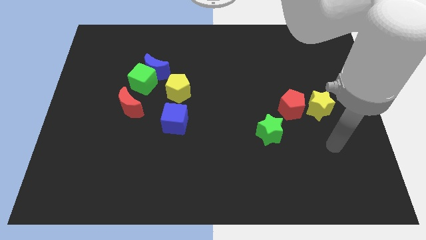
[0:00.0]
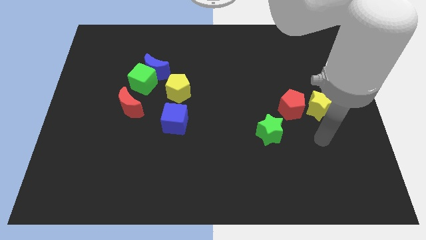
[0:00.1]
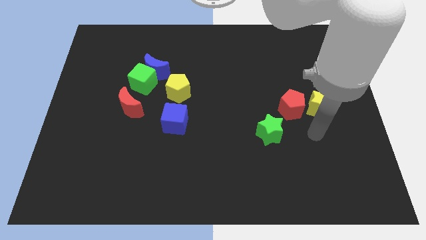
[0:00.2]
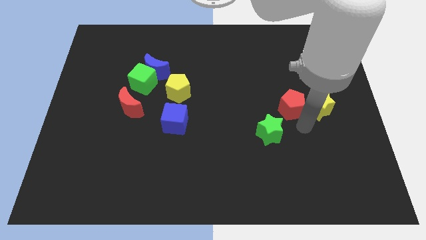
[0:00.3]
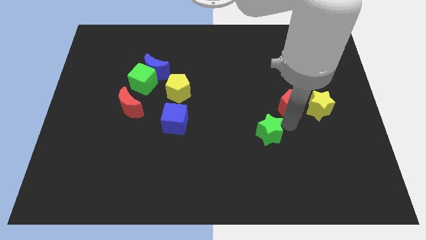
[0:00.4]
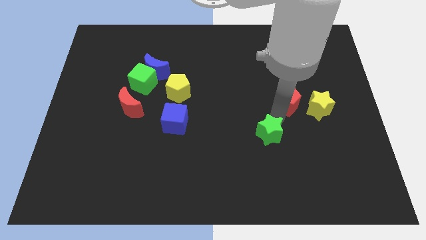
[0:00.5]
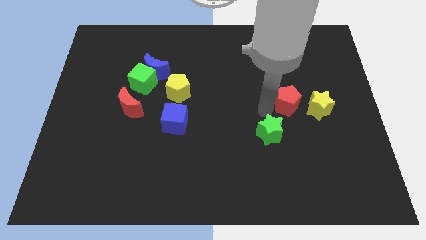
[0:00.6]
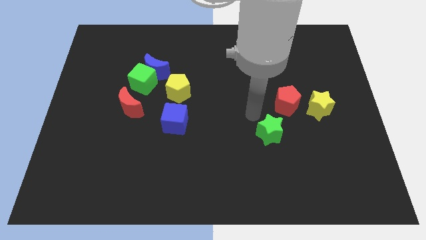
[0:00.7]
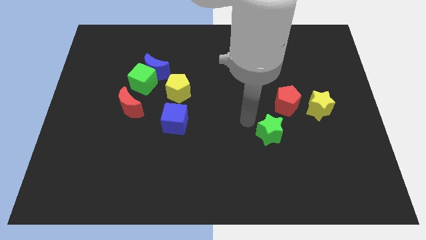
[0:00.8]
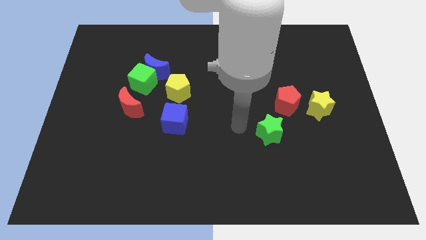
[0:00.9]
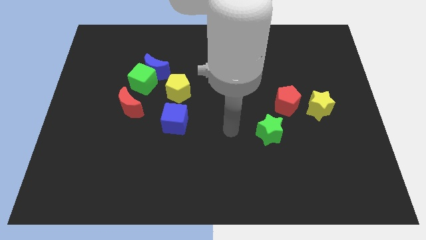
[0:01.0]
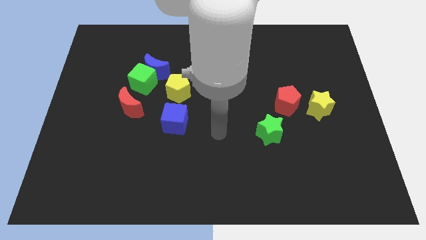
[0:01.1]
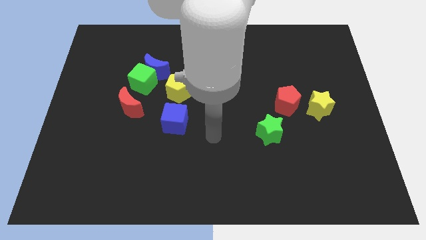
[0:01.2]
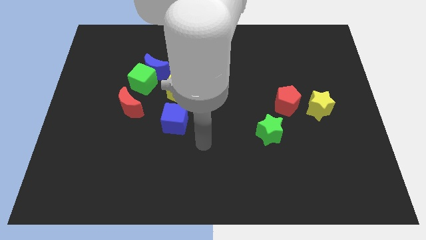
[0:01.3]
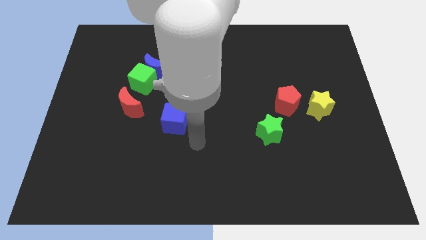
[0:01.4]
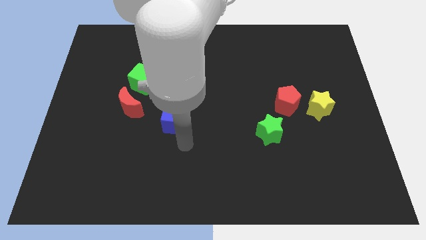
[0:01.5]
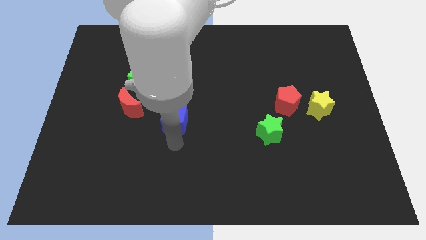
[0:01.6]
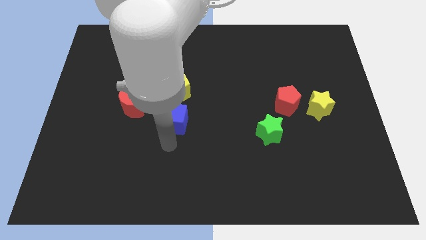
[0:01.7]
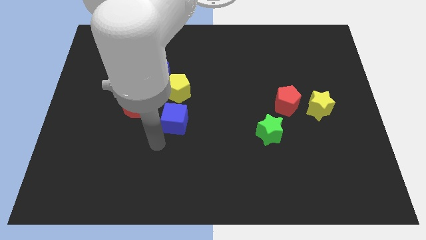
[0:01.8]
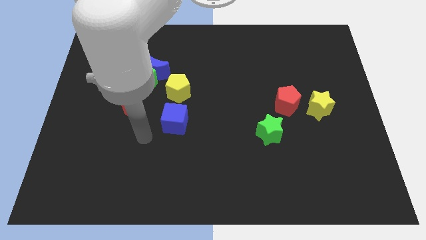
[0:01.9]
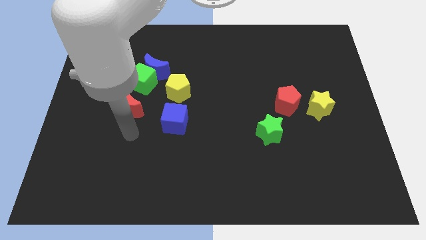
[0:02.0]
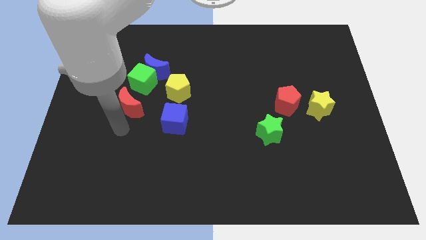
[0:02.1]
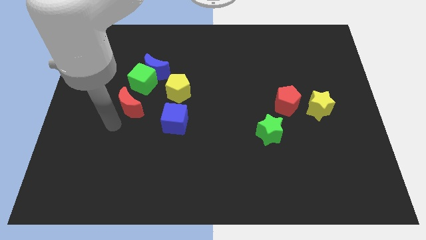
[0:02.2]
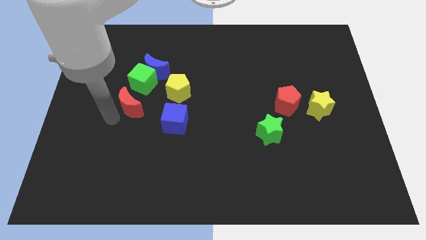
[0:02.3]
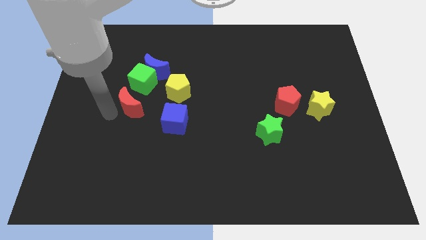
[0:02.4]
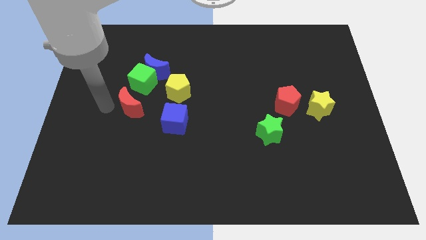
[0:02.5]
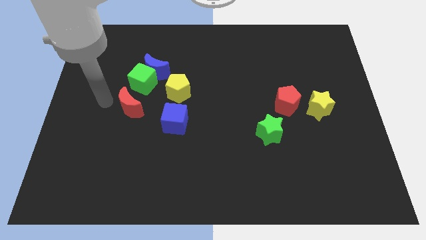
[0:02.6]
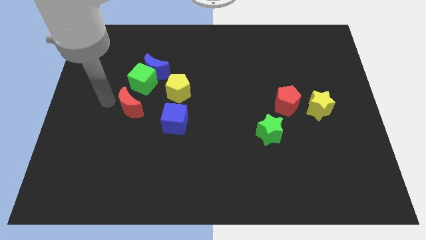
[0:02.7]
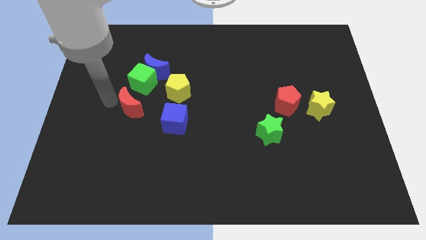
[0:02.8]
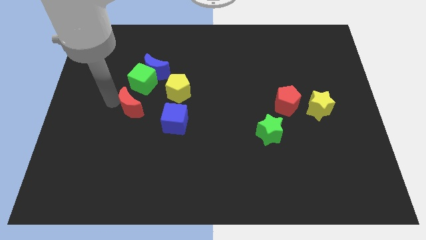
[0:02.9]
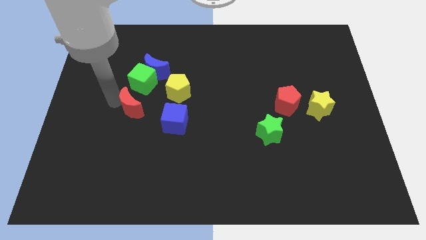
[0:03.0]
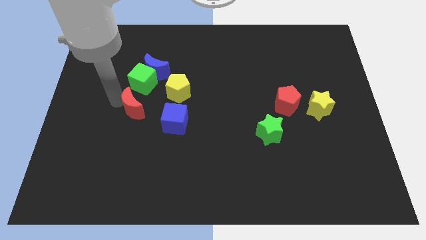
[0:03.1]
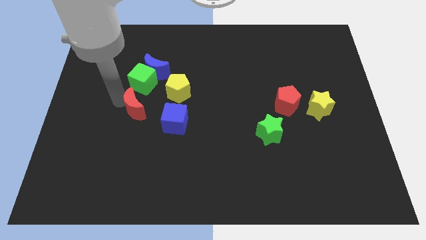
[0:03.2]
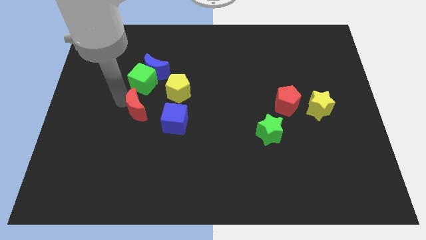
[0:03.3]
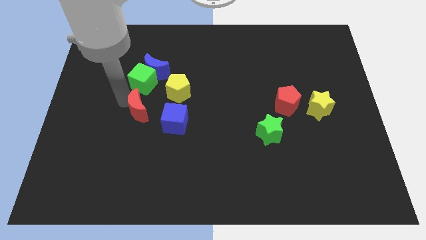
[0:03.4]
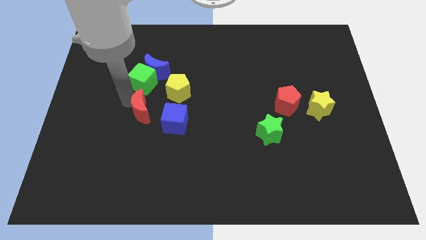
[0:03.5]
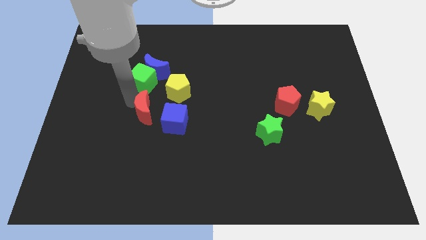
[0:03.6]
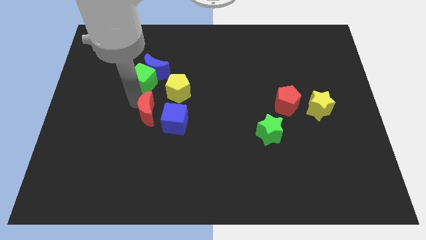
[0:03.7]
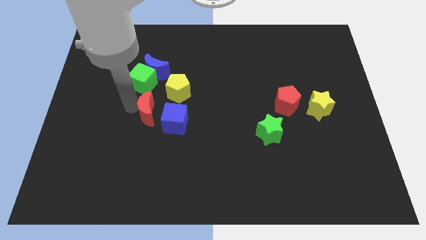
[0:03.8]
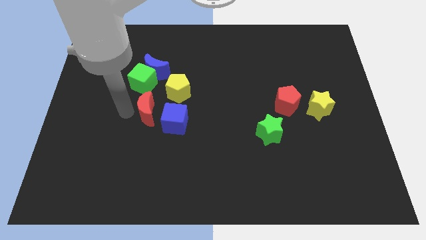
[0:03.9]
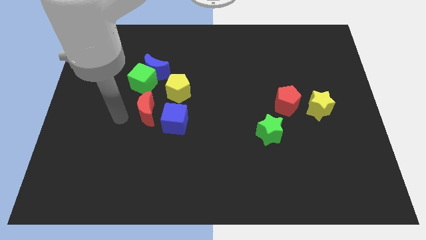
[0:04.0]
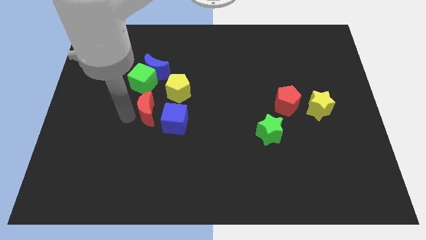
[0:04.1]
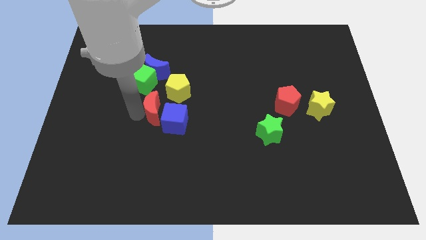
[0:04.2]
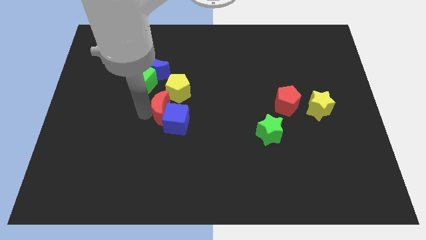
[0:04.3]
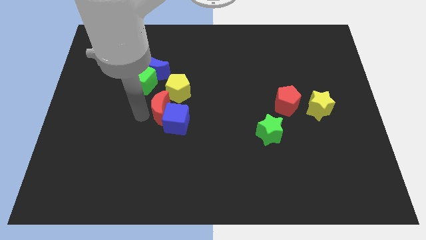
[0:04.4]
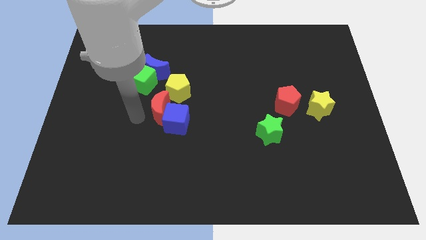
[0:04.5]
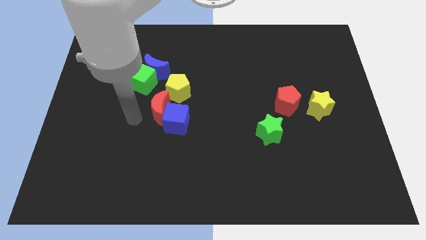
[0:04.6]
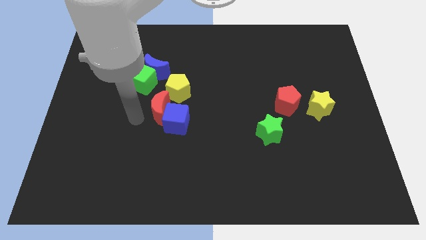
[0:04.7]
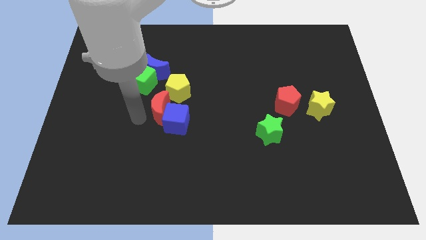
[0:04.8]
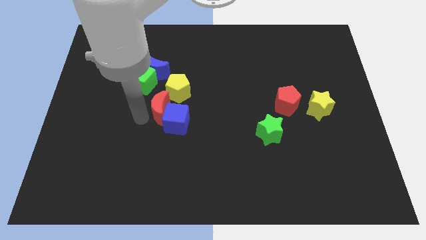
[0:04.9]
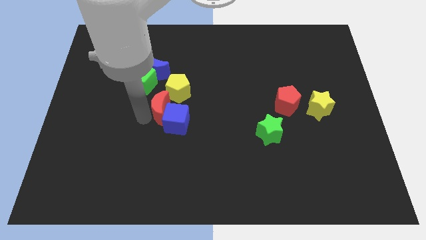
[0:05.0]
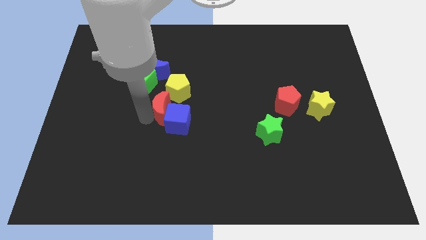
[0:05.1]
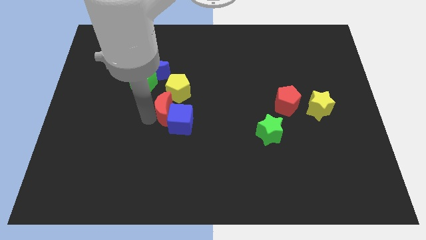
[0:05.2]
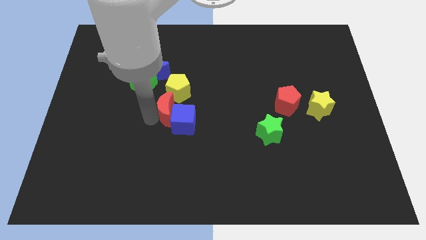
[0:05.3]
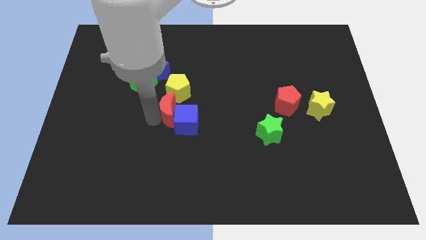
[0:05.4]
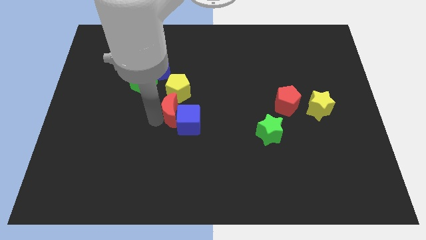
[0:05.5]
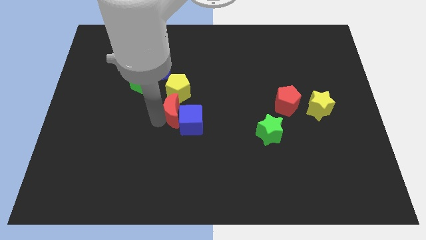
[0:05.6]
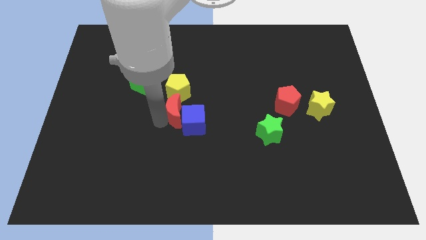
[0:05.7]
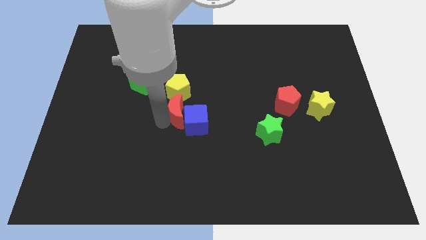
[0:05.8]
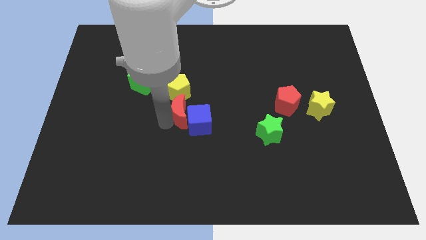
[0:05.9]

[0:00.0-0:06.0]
put the red moon to the bottom right of the yellow pentagon
